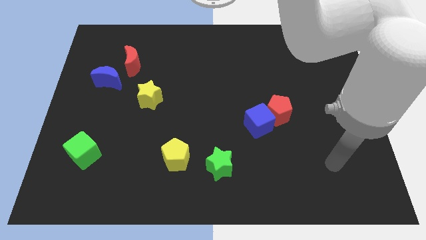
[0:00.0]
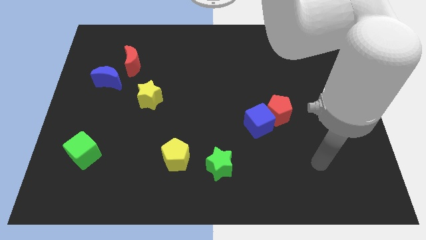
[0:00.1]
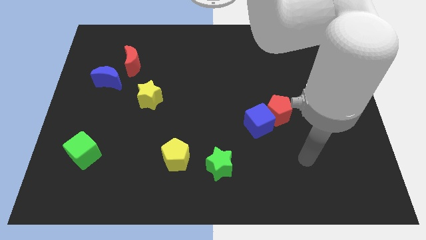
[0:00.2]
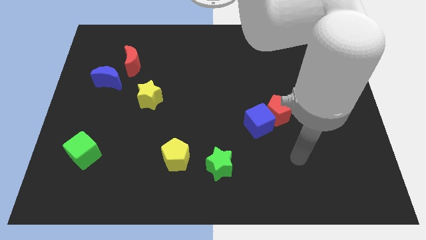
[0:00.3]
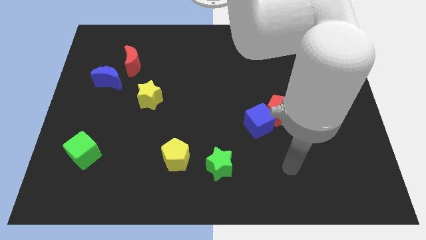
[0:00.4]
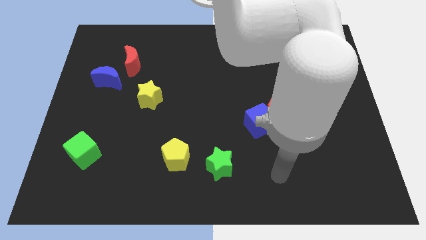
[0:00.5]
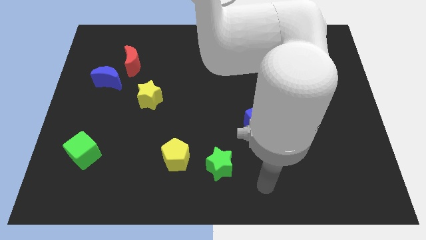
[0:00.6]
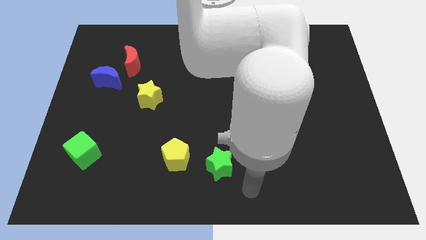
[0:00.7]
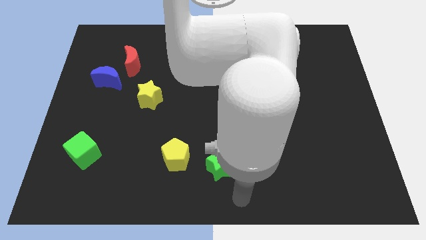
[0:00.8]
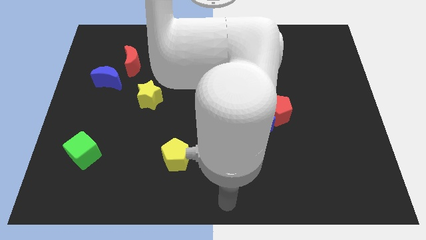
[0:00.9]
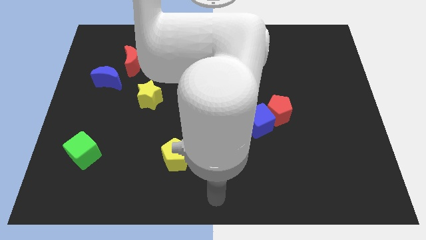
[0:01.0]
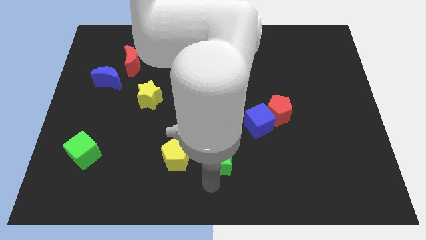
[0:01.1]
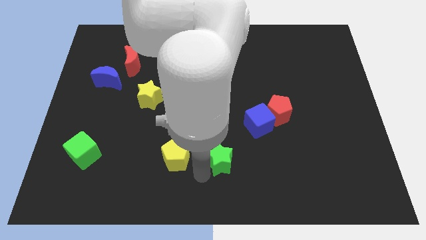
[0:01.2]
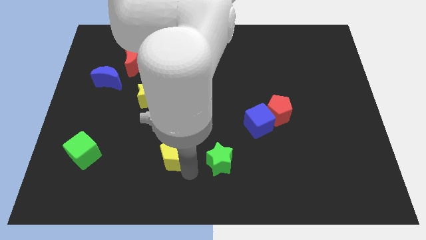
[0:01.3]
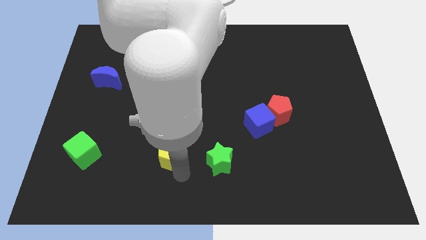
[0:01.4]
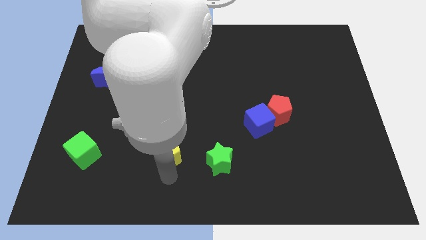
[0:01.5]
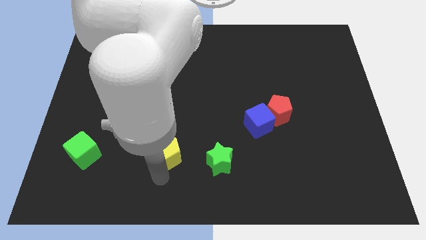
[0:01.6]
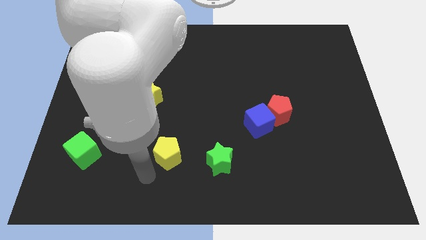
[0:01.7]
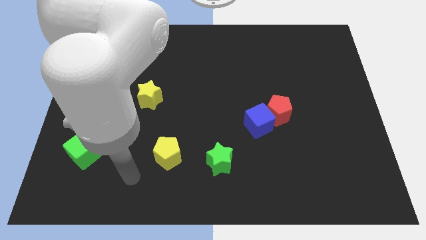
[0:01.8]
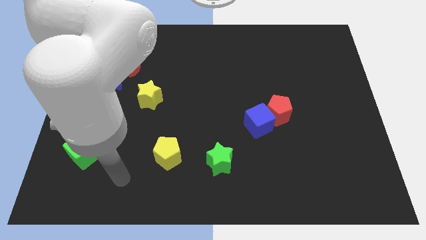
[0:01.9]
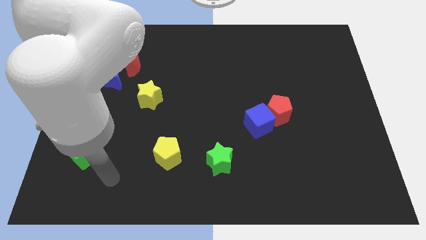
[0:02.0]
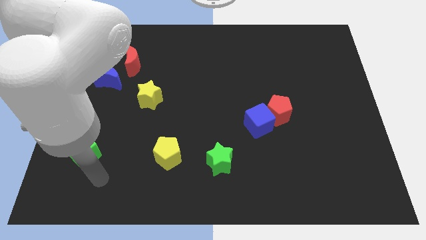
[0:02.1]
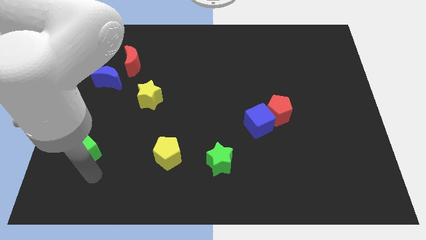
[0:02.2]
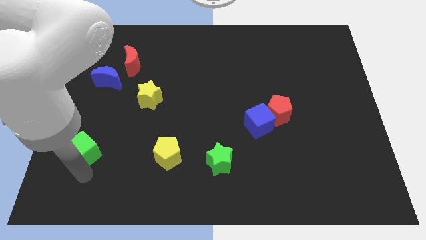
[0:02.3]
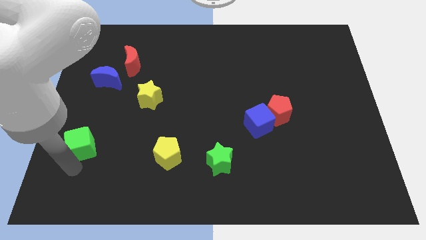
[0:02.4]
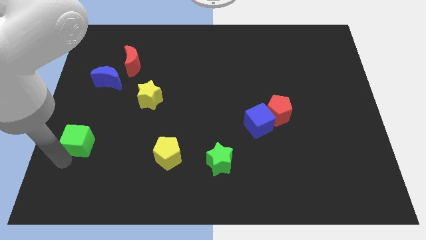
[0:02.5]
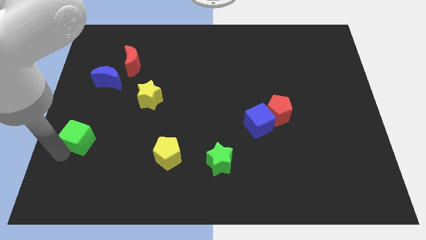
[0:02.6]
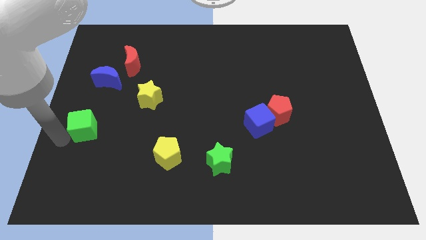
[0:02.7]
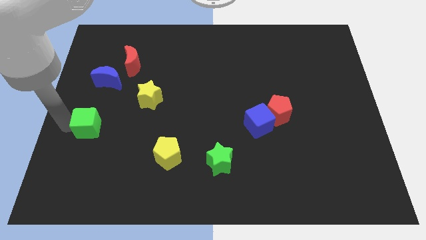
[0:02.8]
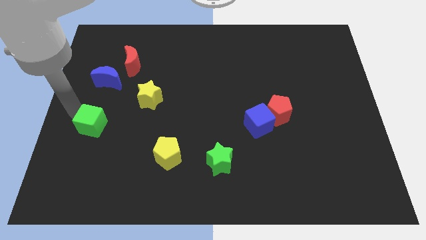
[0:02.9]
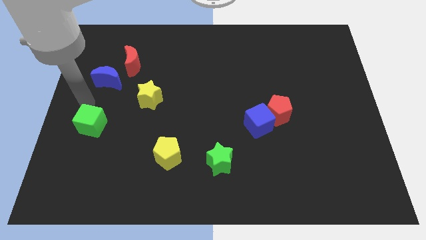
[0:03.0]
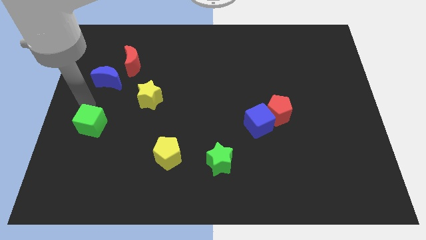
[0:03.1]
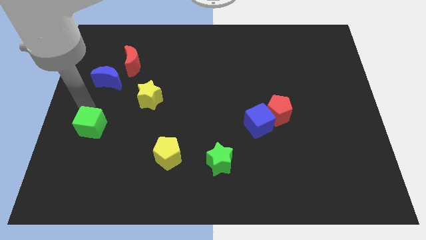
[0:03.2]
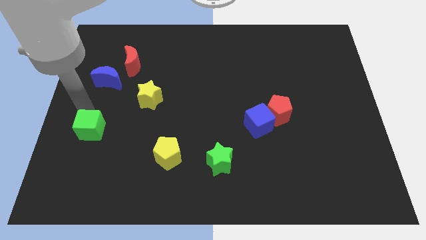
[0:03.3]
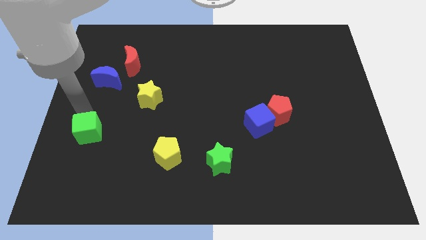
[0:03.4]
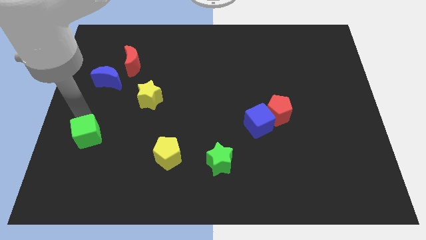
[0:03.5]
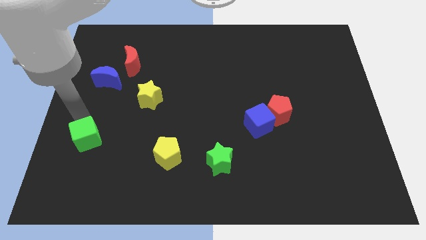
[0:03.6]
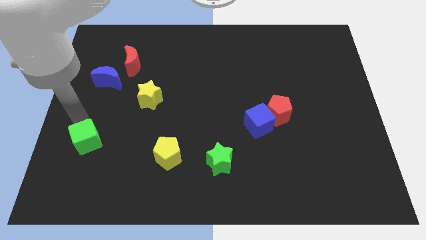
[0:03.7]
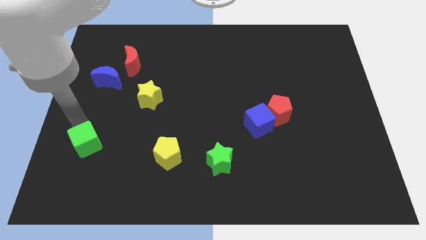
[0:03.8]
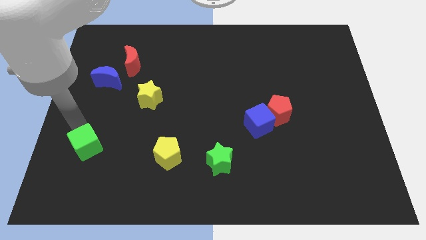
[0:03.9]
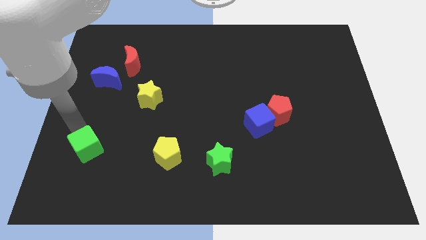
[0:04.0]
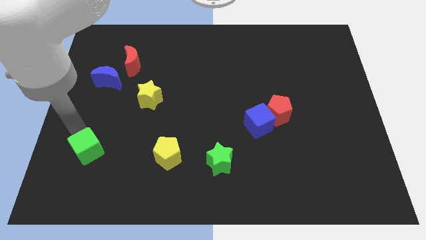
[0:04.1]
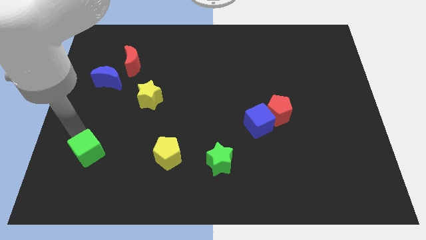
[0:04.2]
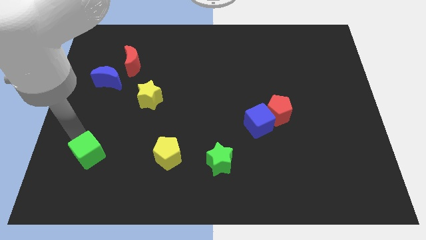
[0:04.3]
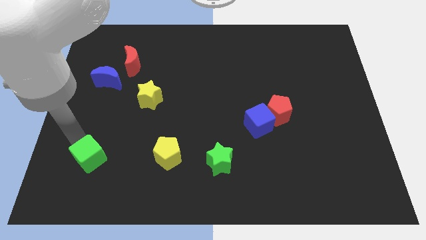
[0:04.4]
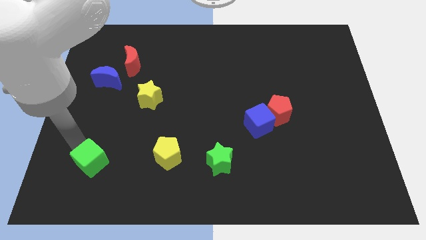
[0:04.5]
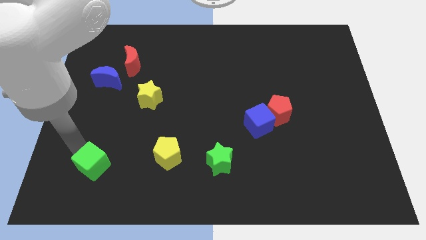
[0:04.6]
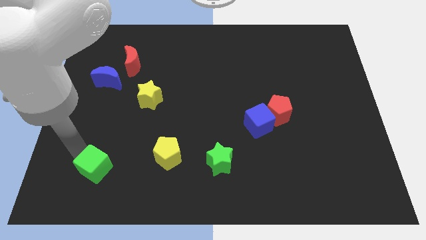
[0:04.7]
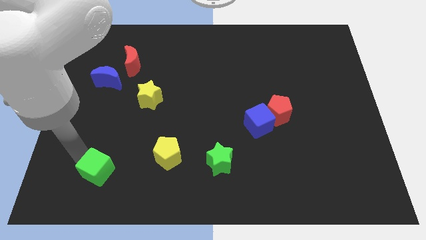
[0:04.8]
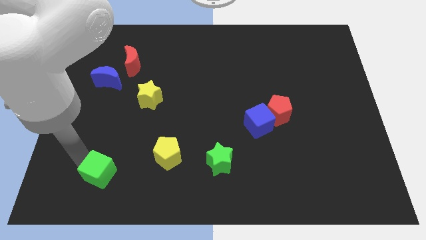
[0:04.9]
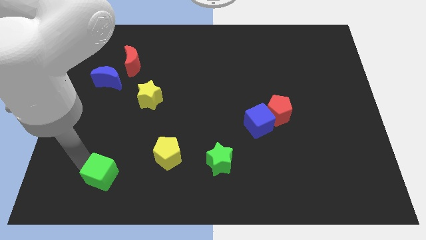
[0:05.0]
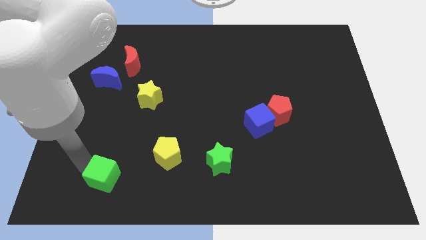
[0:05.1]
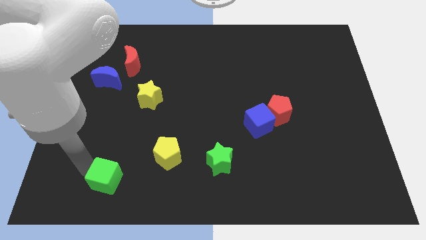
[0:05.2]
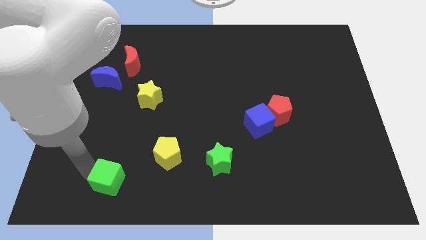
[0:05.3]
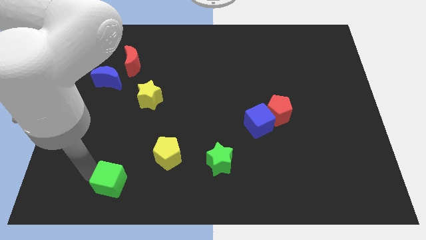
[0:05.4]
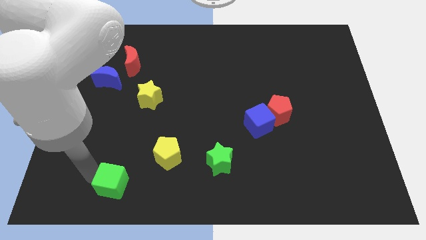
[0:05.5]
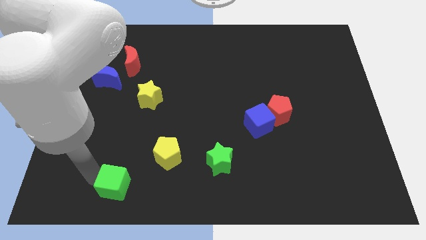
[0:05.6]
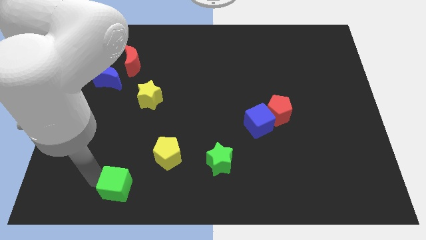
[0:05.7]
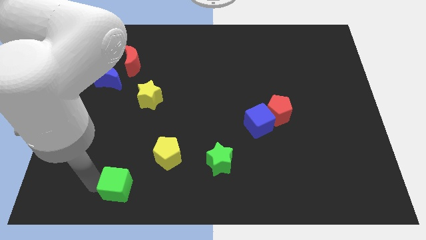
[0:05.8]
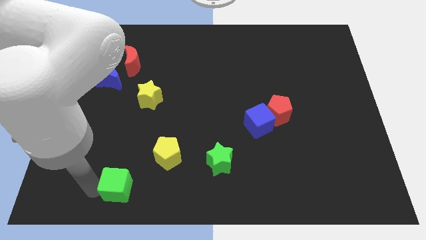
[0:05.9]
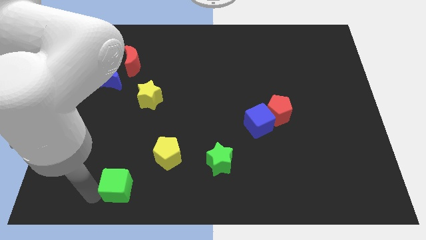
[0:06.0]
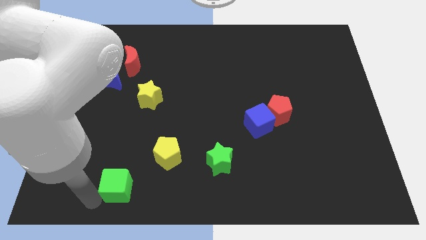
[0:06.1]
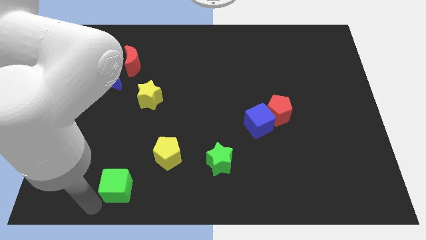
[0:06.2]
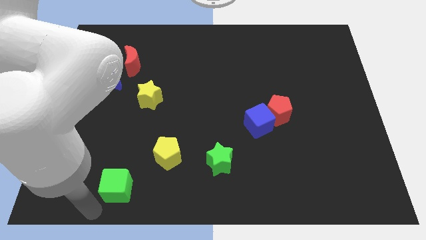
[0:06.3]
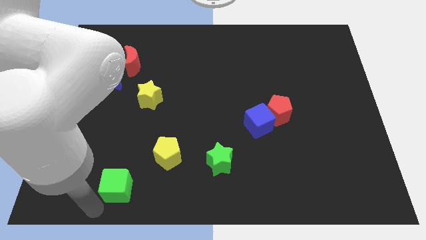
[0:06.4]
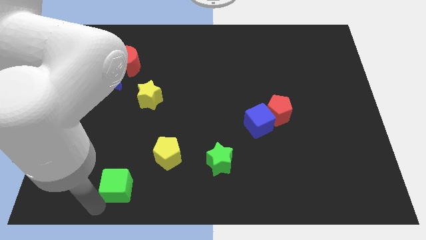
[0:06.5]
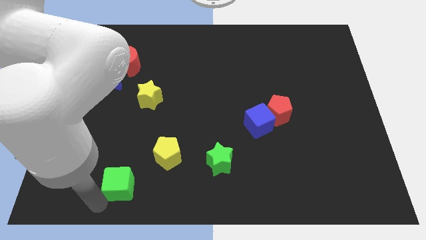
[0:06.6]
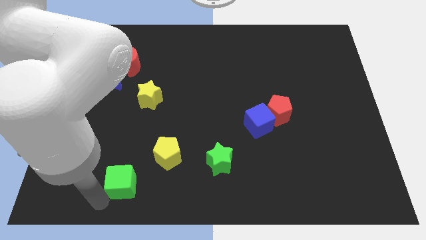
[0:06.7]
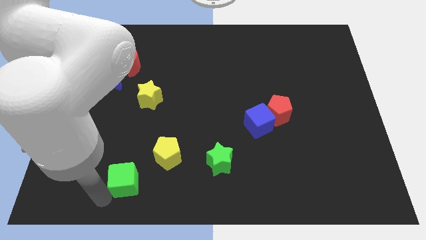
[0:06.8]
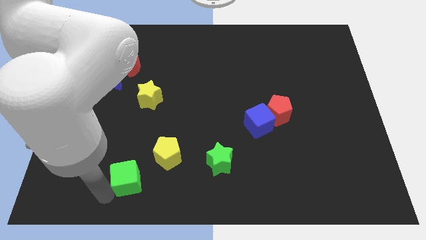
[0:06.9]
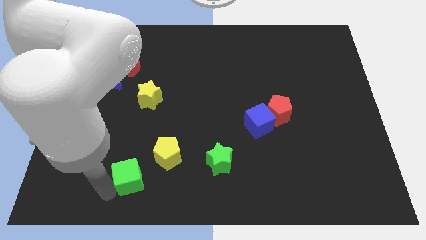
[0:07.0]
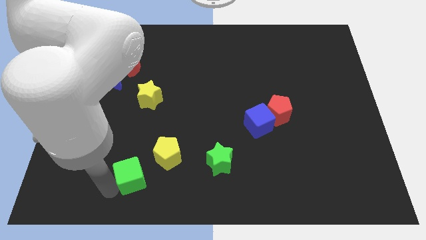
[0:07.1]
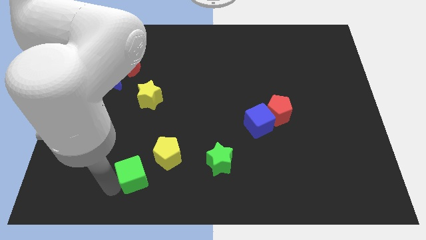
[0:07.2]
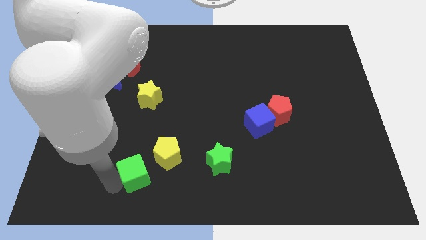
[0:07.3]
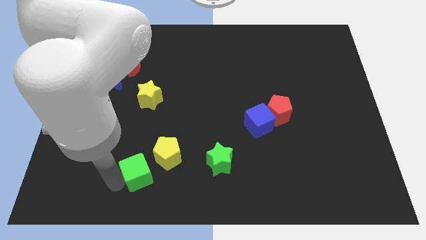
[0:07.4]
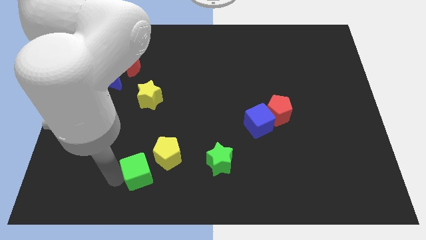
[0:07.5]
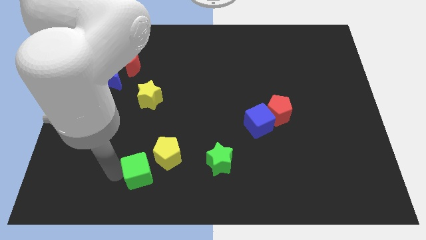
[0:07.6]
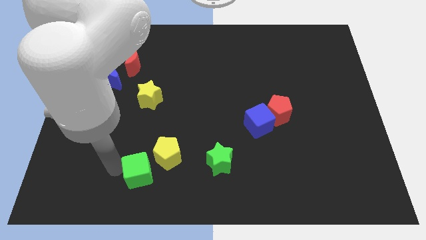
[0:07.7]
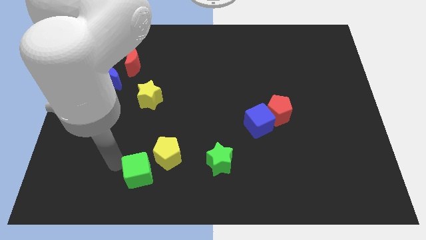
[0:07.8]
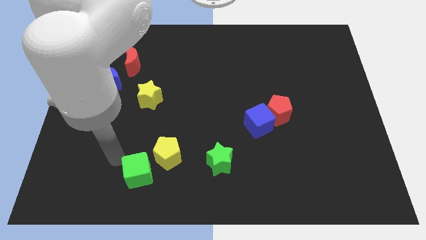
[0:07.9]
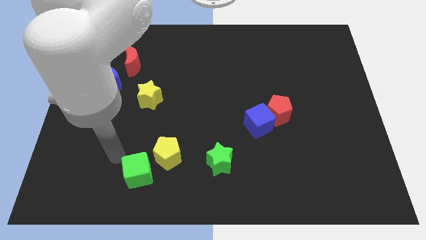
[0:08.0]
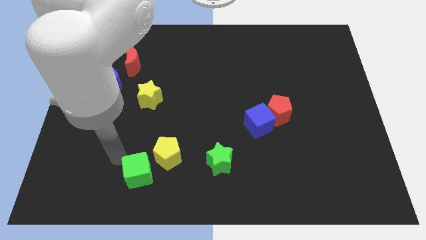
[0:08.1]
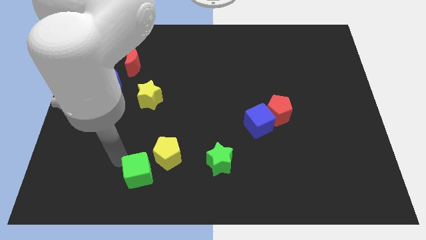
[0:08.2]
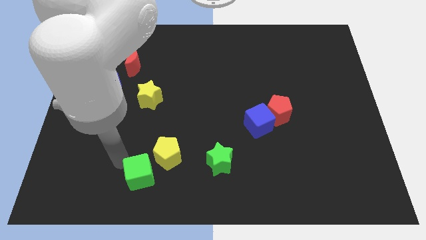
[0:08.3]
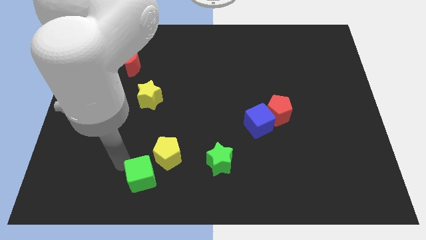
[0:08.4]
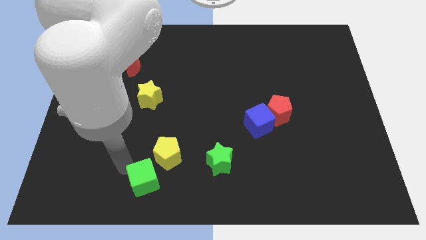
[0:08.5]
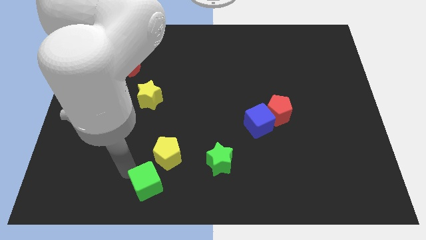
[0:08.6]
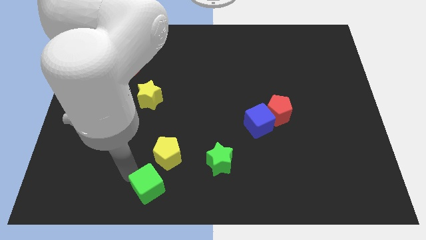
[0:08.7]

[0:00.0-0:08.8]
put the green cube to the bottom side
